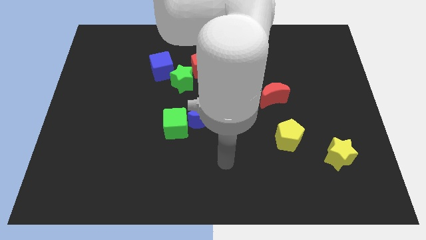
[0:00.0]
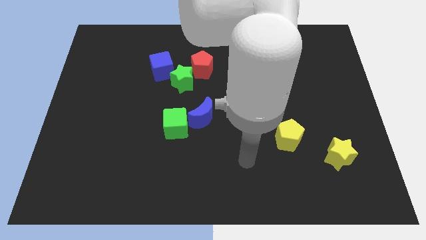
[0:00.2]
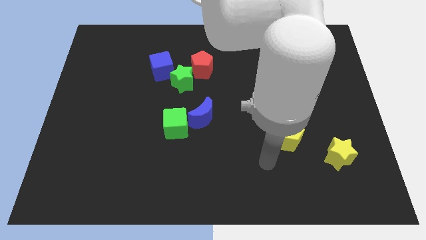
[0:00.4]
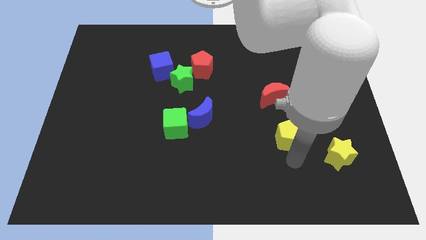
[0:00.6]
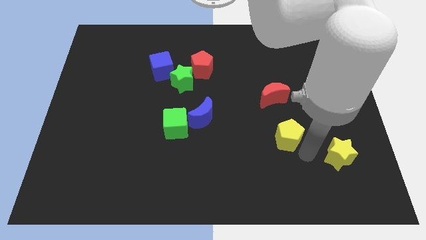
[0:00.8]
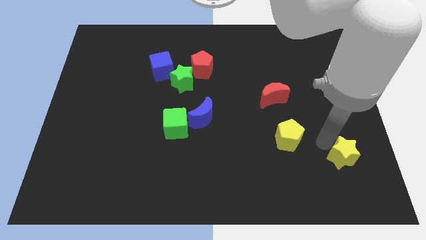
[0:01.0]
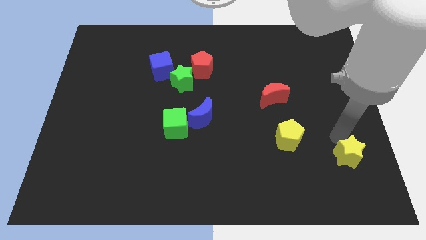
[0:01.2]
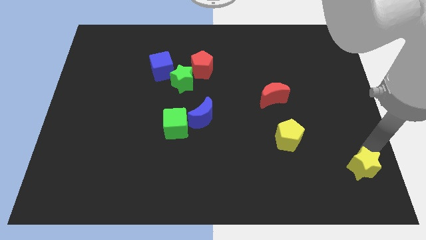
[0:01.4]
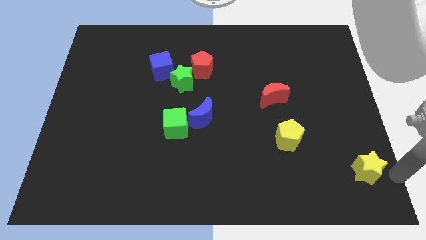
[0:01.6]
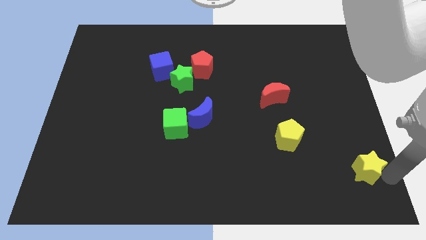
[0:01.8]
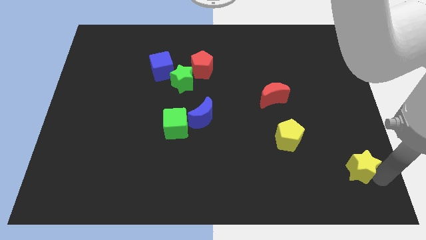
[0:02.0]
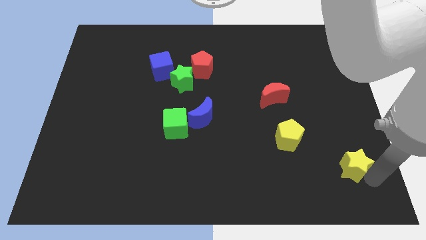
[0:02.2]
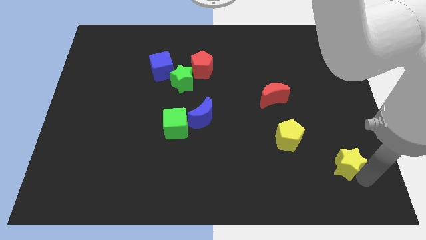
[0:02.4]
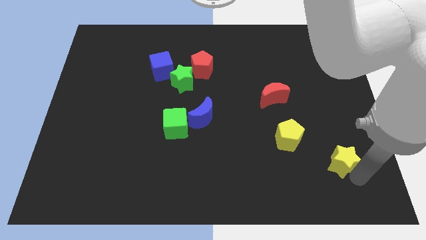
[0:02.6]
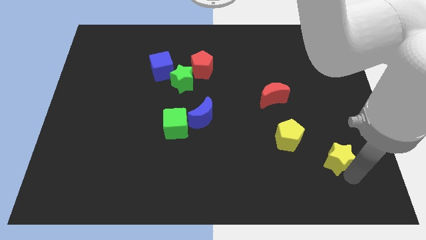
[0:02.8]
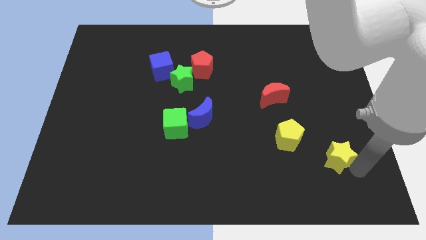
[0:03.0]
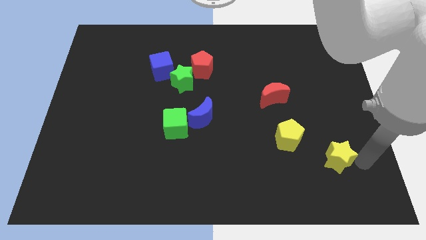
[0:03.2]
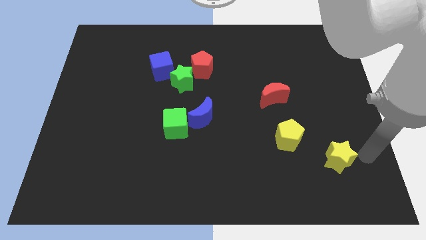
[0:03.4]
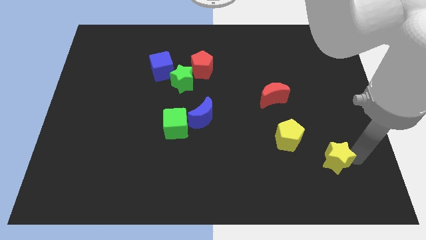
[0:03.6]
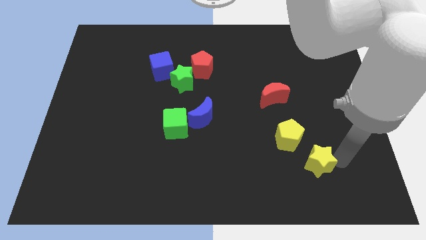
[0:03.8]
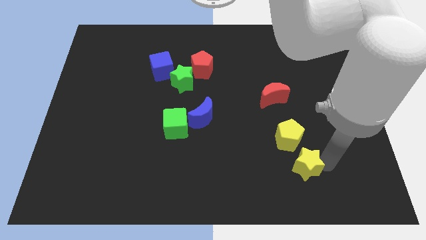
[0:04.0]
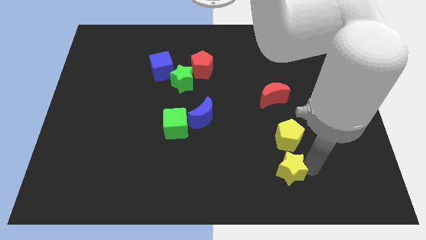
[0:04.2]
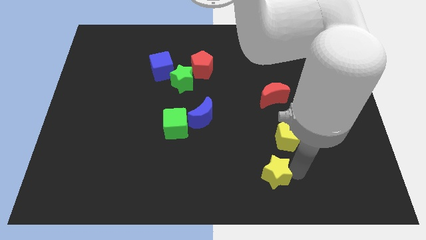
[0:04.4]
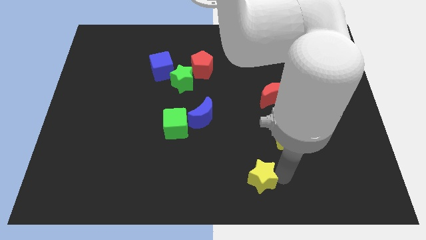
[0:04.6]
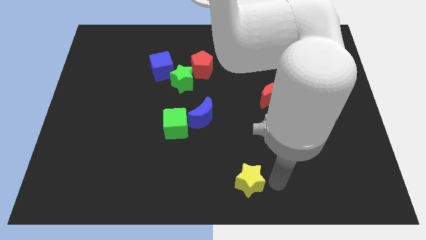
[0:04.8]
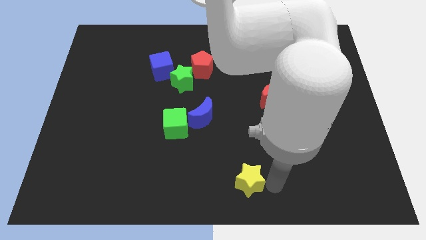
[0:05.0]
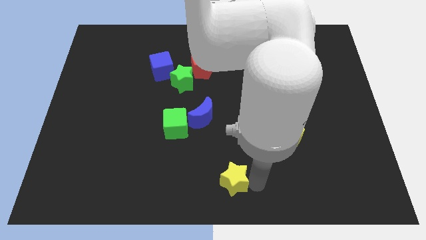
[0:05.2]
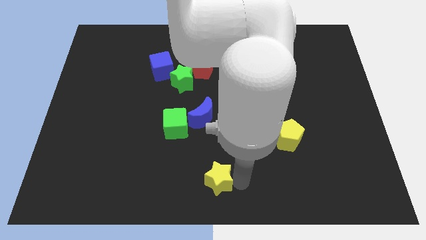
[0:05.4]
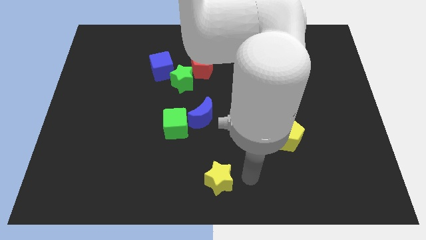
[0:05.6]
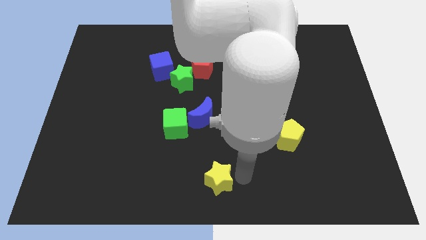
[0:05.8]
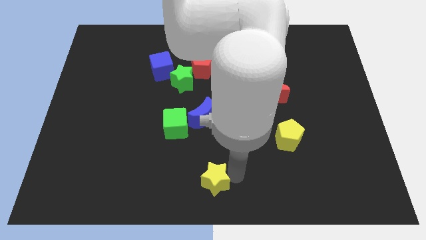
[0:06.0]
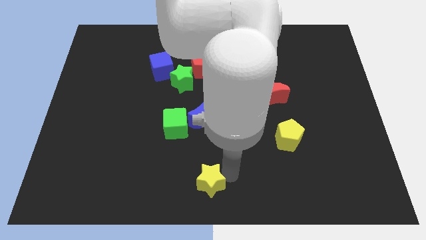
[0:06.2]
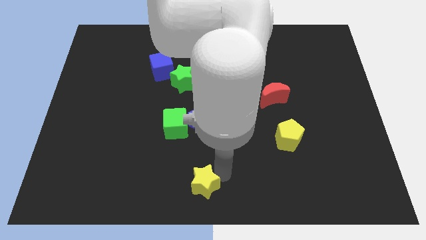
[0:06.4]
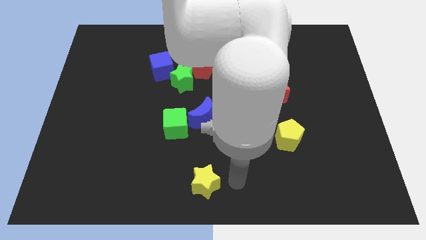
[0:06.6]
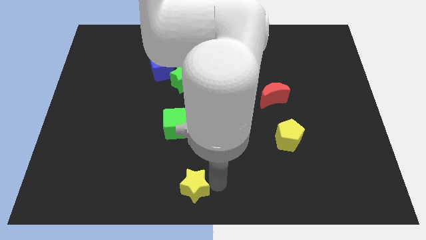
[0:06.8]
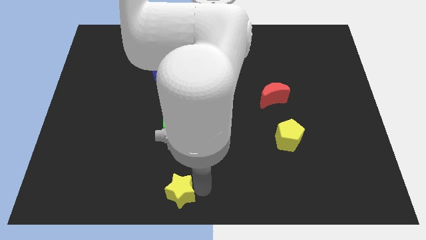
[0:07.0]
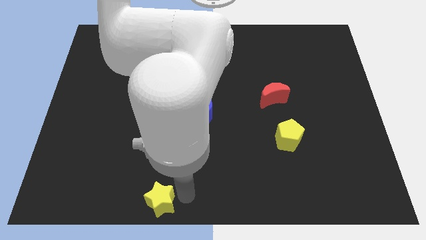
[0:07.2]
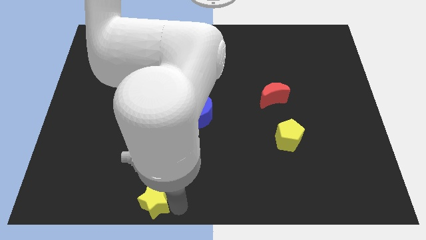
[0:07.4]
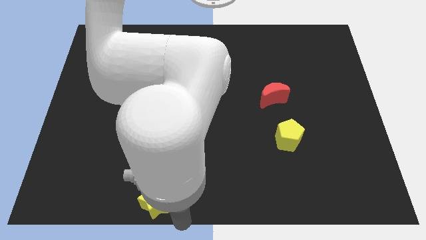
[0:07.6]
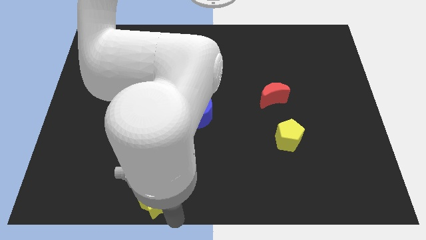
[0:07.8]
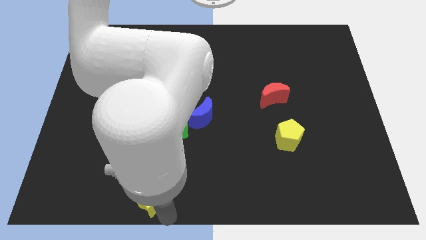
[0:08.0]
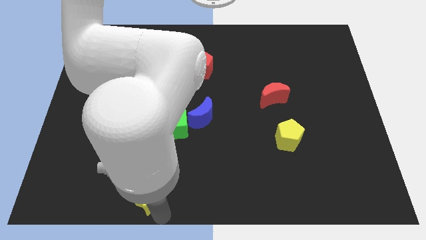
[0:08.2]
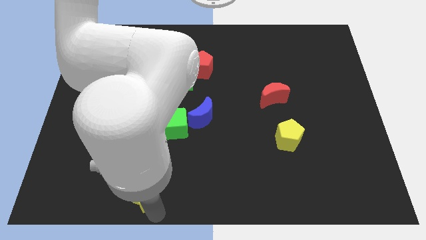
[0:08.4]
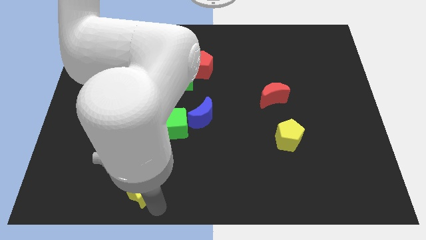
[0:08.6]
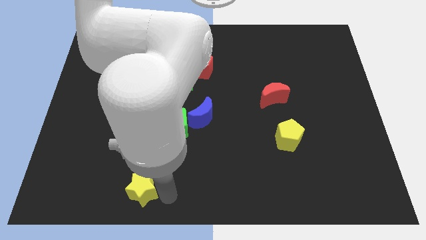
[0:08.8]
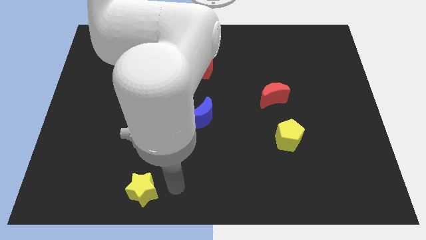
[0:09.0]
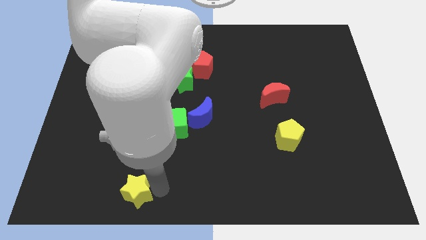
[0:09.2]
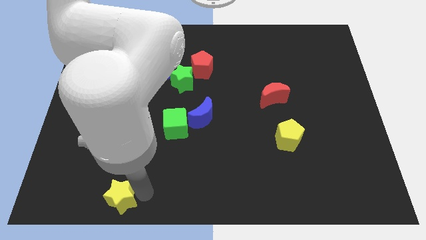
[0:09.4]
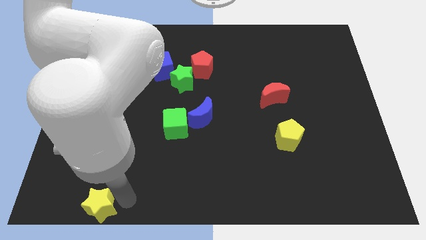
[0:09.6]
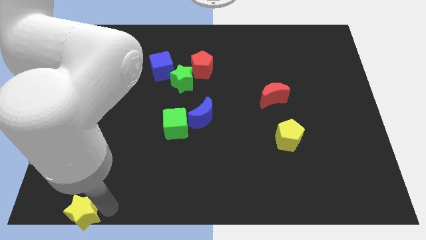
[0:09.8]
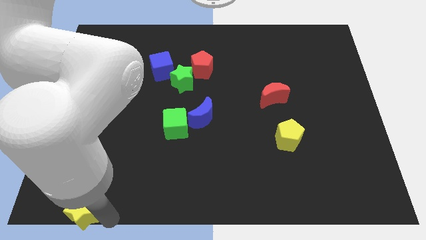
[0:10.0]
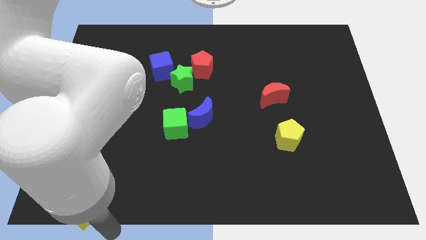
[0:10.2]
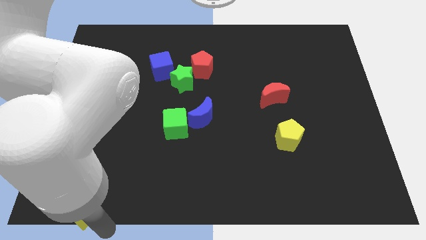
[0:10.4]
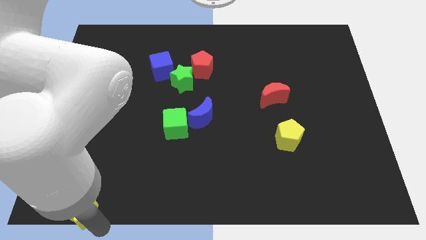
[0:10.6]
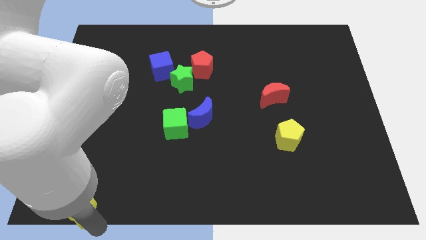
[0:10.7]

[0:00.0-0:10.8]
push the yellow star to the bottom left corner
